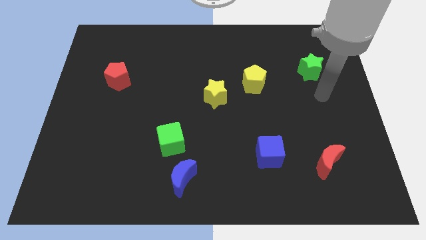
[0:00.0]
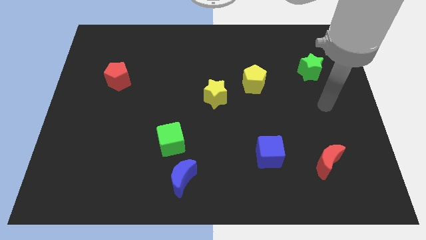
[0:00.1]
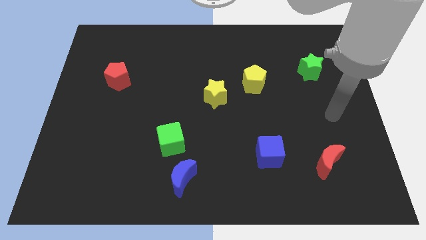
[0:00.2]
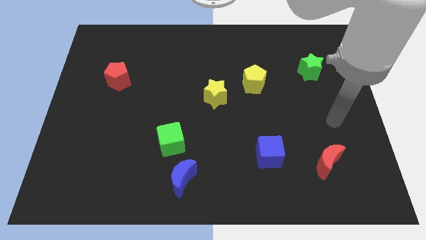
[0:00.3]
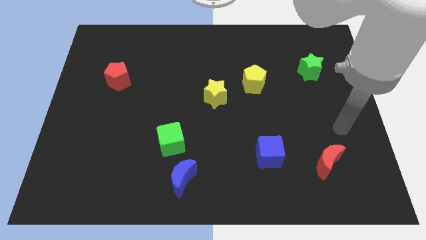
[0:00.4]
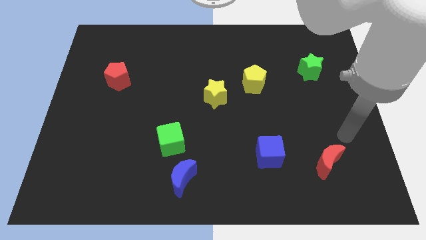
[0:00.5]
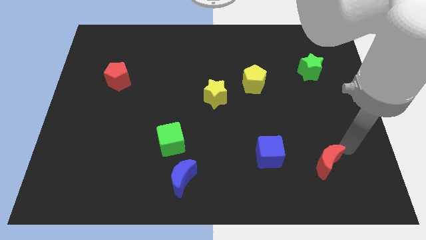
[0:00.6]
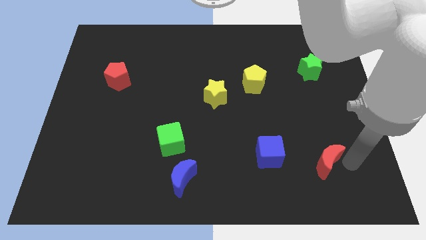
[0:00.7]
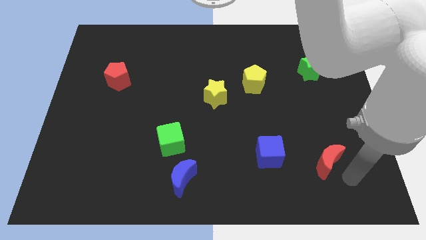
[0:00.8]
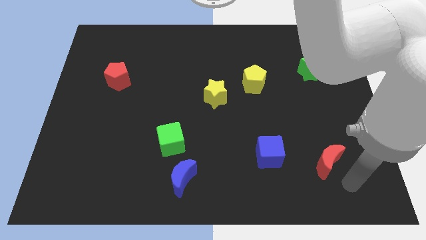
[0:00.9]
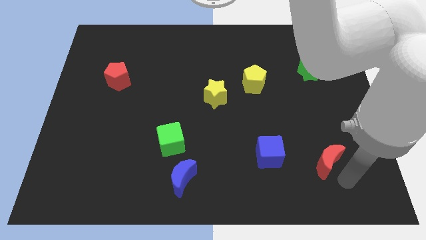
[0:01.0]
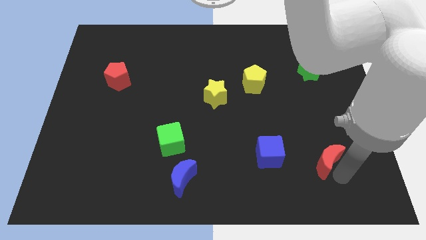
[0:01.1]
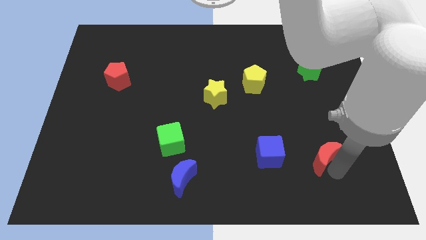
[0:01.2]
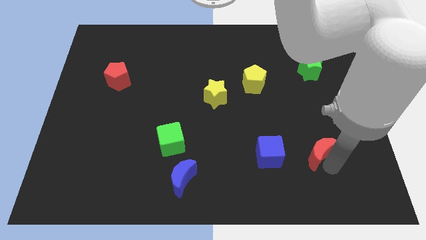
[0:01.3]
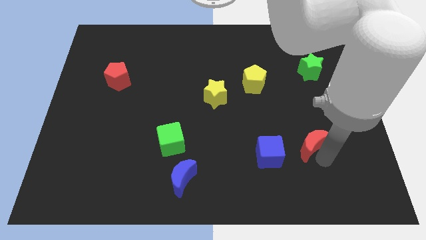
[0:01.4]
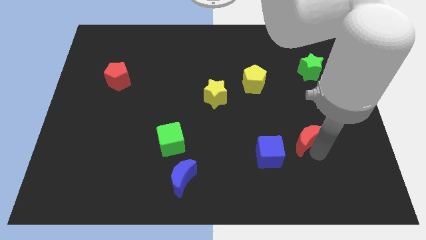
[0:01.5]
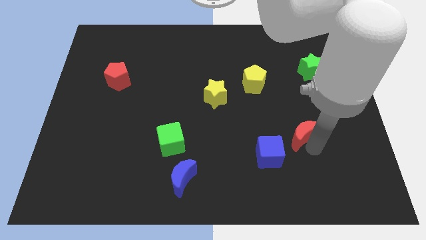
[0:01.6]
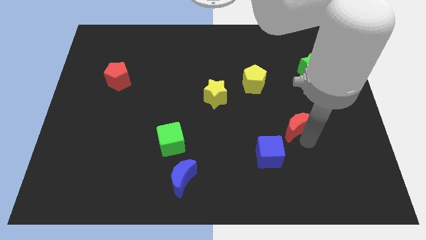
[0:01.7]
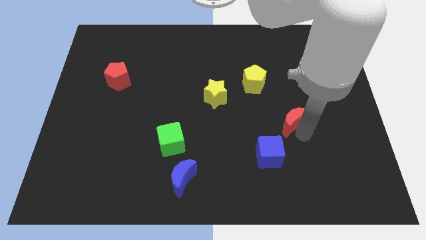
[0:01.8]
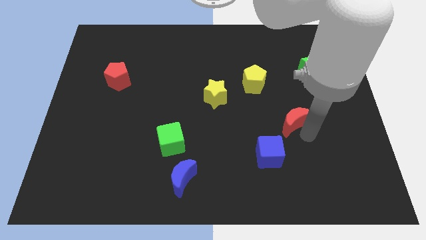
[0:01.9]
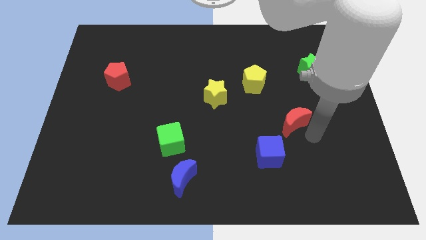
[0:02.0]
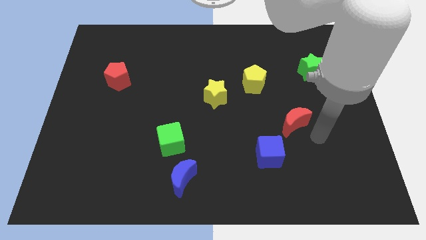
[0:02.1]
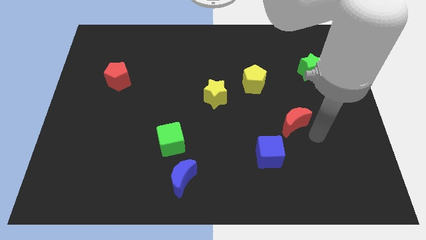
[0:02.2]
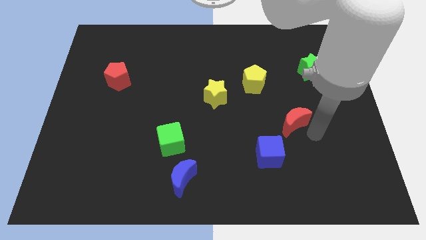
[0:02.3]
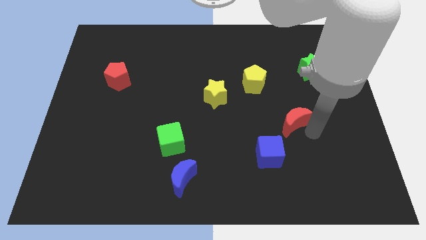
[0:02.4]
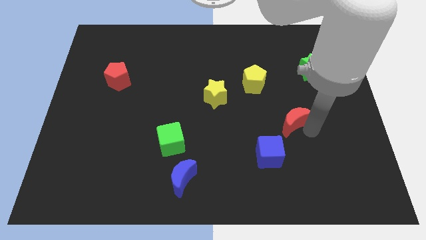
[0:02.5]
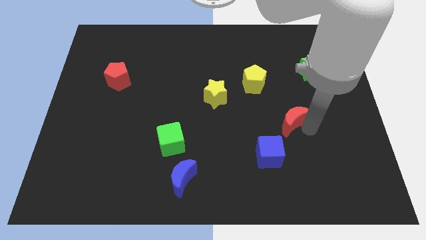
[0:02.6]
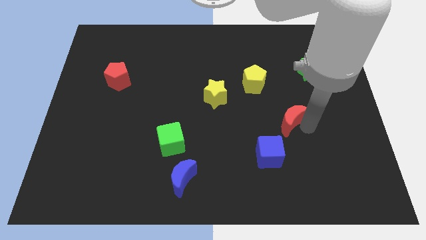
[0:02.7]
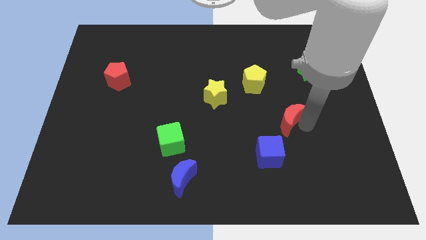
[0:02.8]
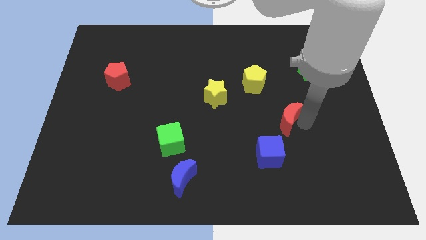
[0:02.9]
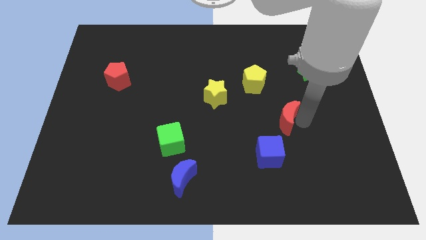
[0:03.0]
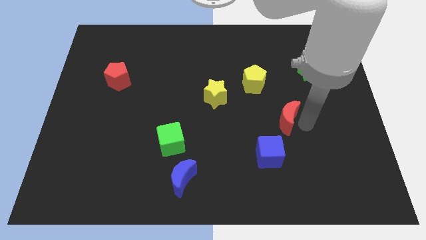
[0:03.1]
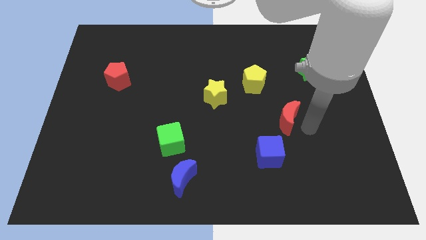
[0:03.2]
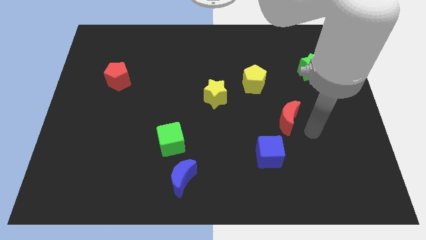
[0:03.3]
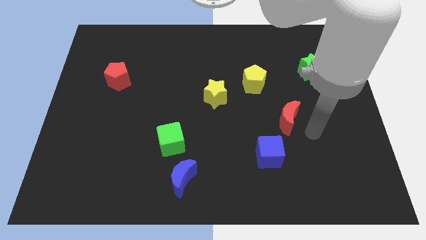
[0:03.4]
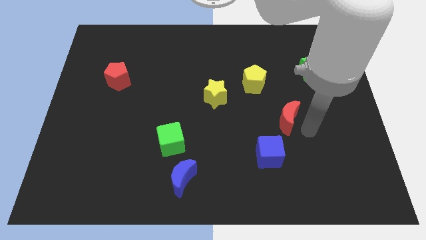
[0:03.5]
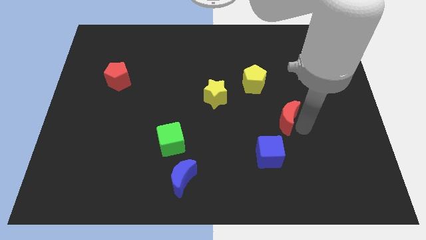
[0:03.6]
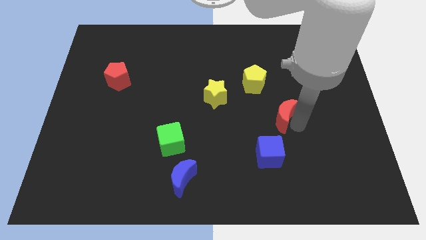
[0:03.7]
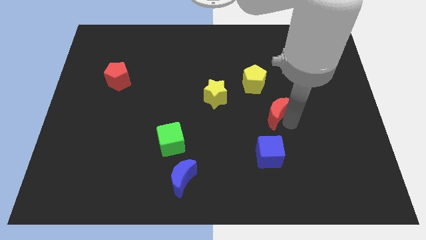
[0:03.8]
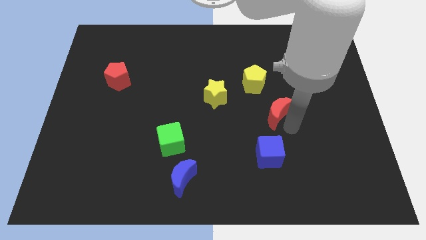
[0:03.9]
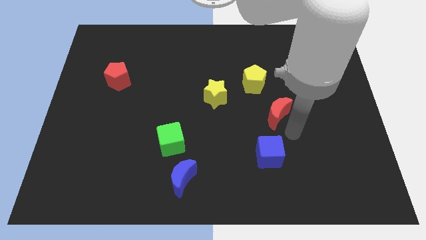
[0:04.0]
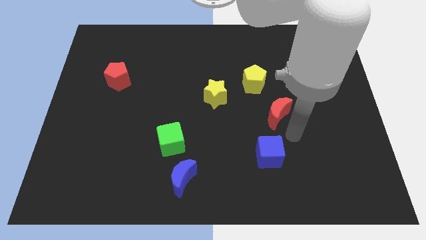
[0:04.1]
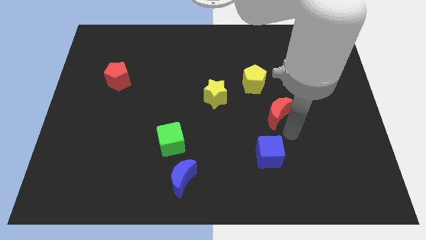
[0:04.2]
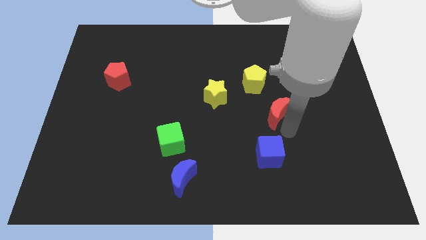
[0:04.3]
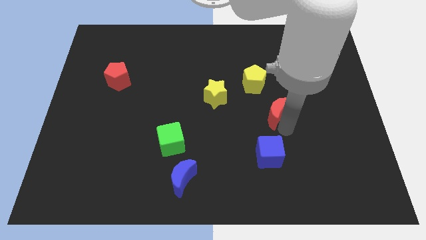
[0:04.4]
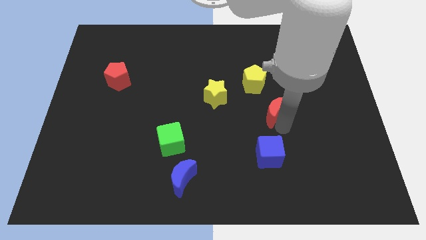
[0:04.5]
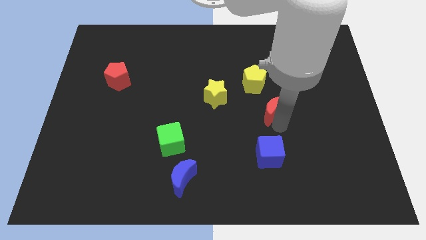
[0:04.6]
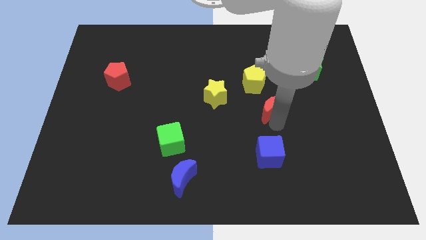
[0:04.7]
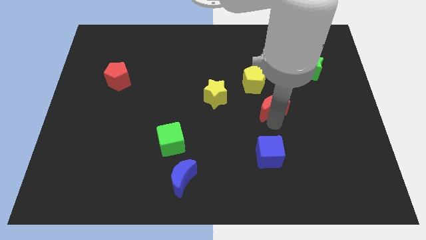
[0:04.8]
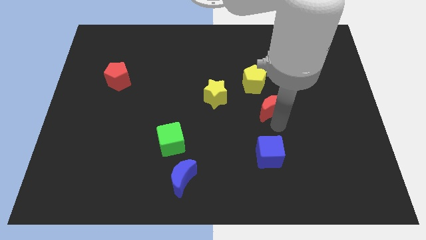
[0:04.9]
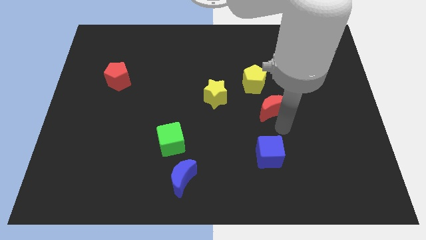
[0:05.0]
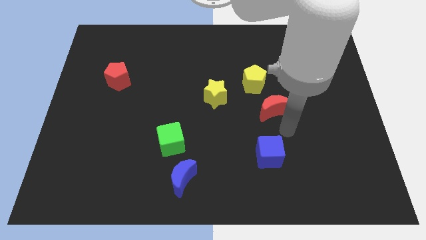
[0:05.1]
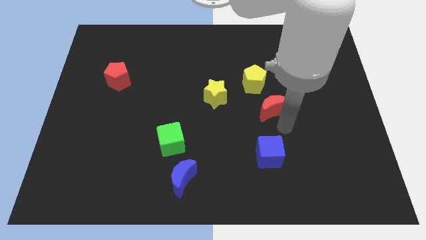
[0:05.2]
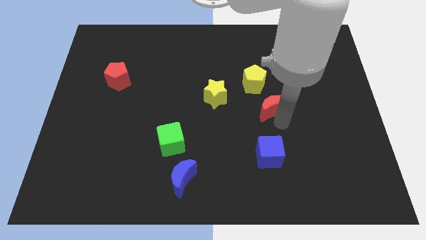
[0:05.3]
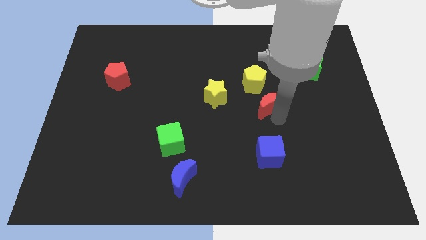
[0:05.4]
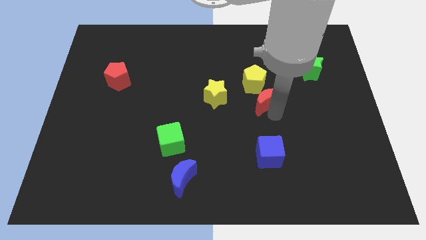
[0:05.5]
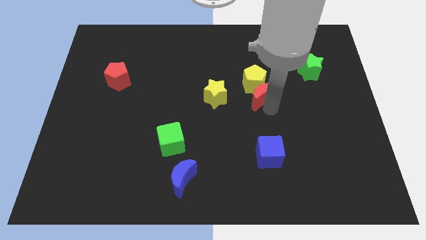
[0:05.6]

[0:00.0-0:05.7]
push the red moon next to the yellow pentagon

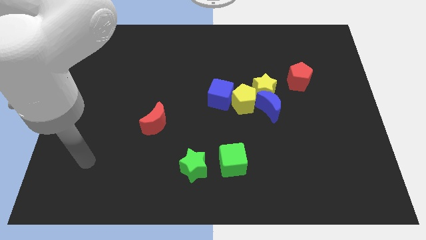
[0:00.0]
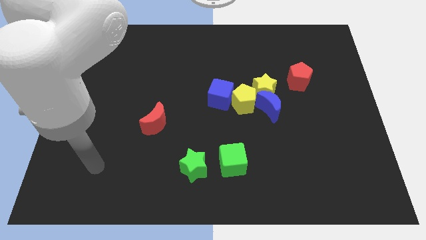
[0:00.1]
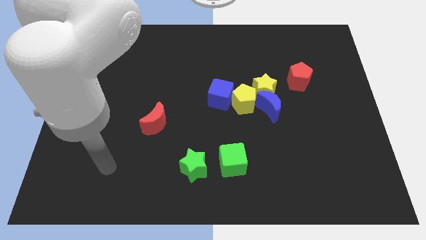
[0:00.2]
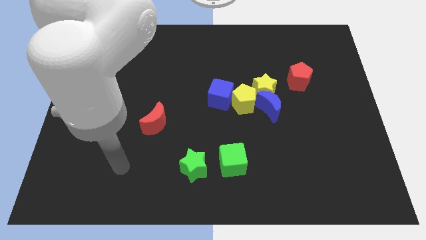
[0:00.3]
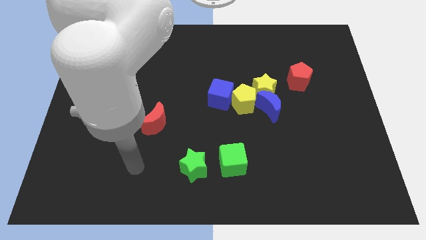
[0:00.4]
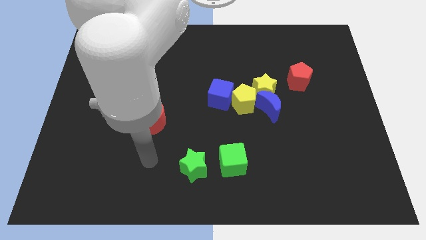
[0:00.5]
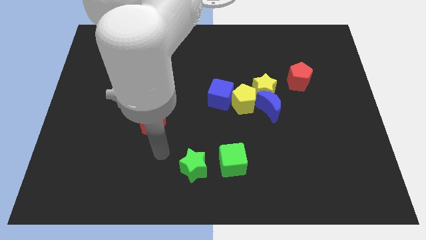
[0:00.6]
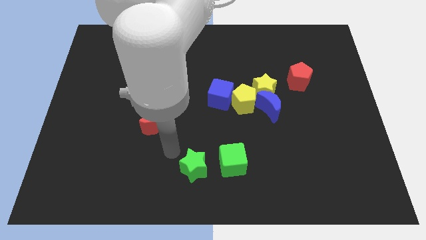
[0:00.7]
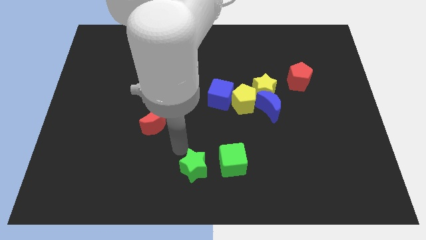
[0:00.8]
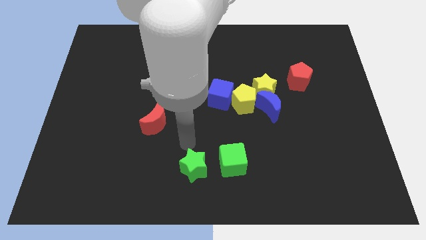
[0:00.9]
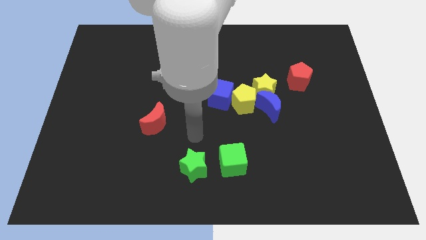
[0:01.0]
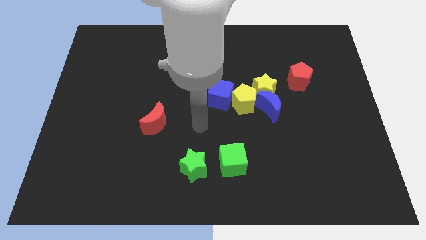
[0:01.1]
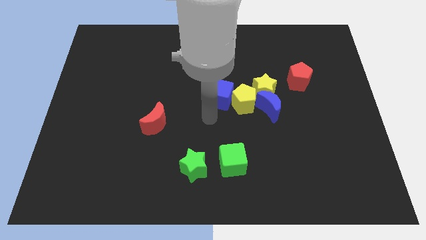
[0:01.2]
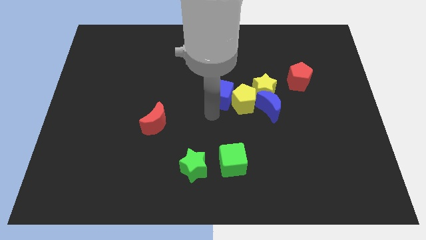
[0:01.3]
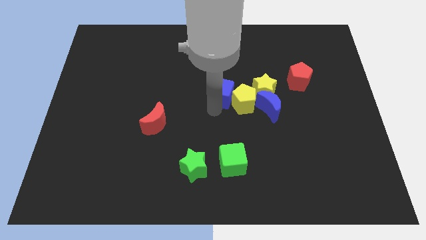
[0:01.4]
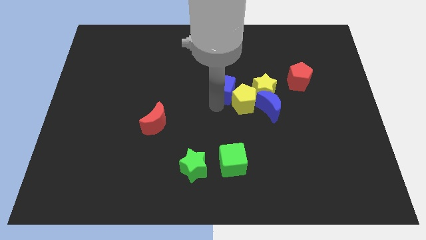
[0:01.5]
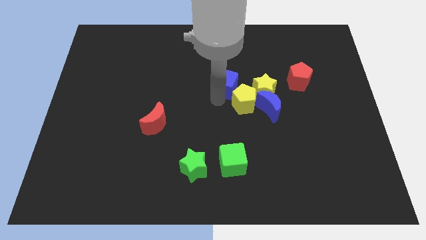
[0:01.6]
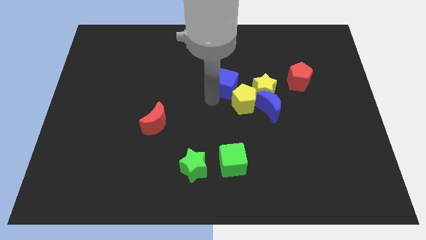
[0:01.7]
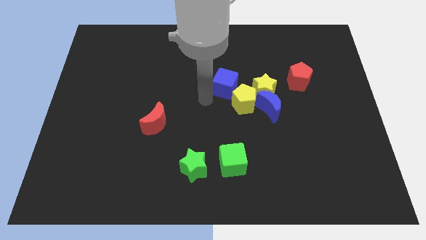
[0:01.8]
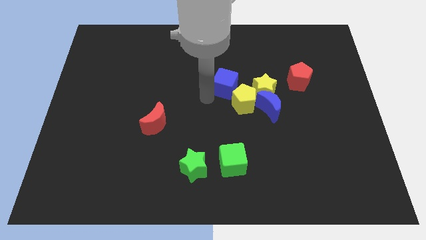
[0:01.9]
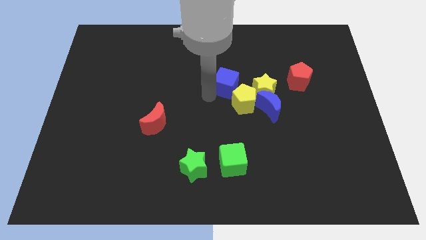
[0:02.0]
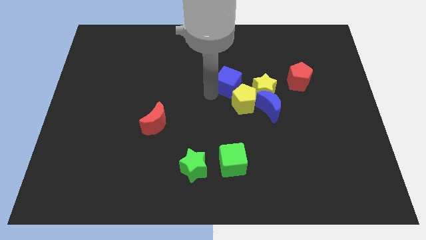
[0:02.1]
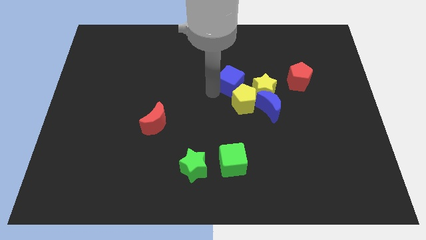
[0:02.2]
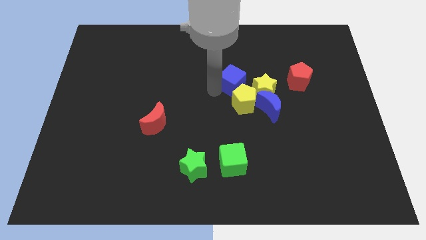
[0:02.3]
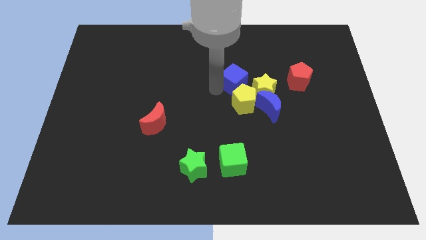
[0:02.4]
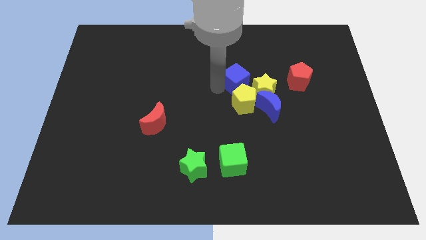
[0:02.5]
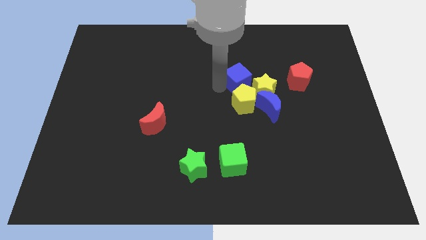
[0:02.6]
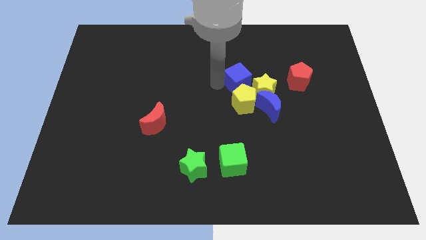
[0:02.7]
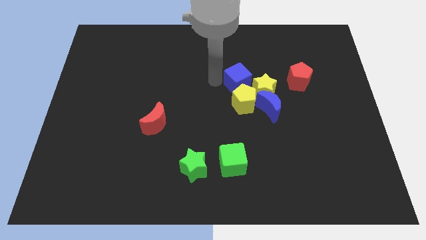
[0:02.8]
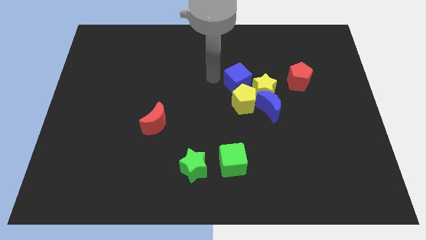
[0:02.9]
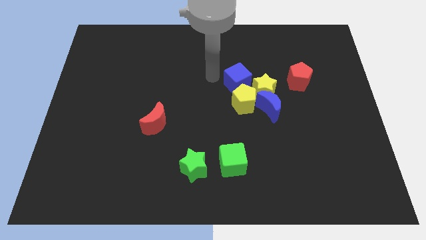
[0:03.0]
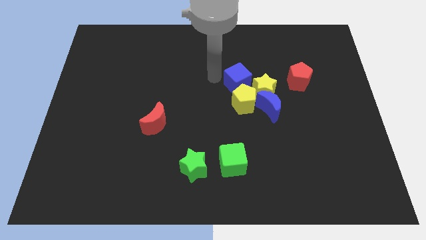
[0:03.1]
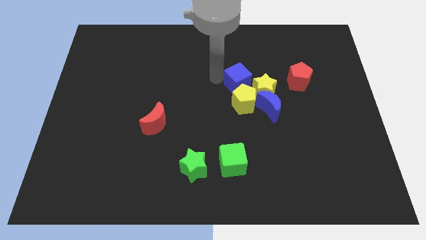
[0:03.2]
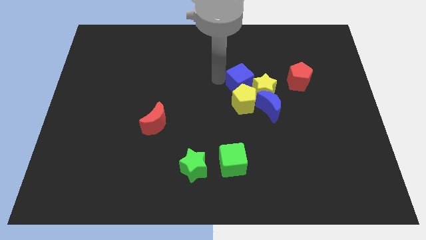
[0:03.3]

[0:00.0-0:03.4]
move the blue cube towards the yellow star
